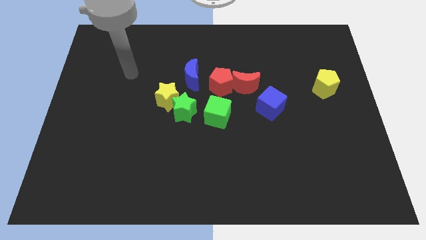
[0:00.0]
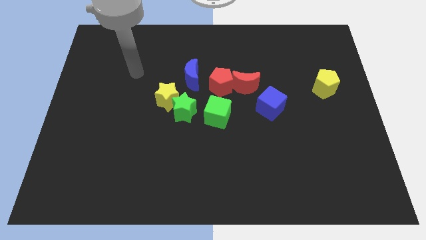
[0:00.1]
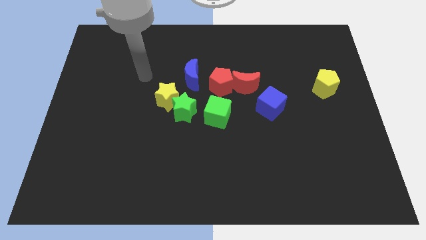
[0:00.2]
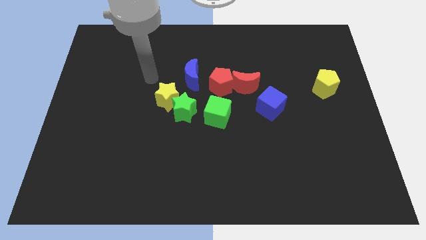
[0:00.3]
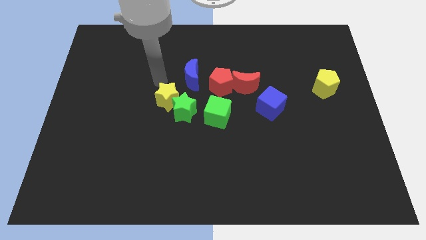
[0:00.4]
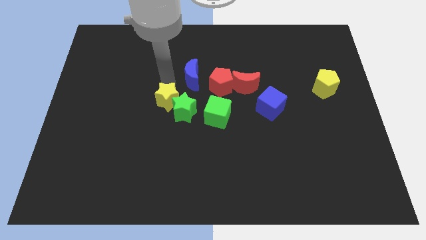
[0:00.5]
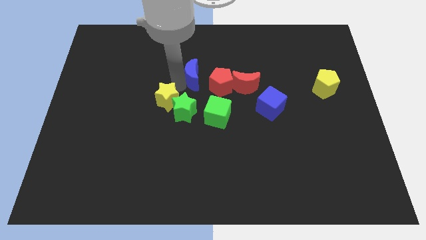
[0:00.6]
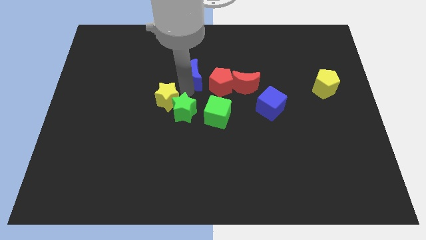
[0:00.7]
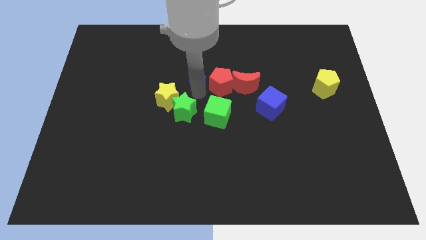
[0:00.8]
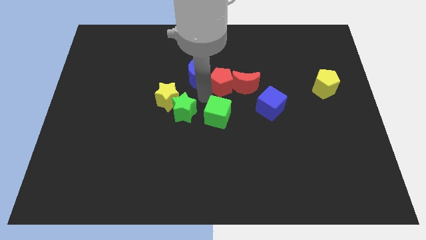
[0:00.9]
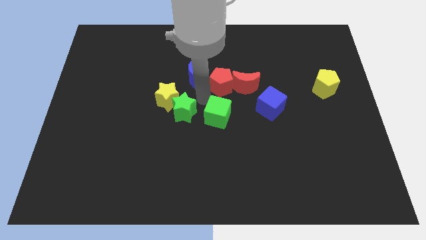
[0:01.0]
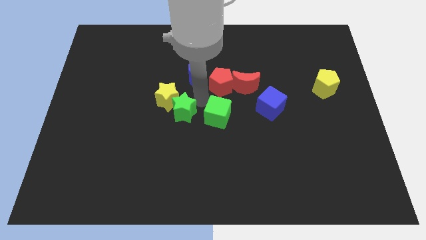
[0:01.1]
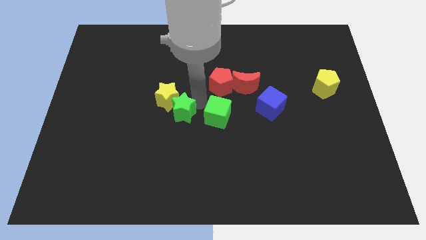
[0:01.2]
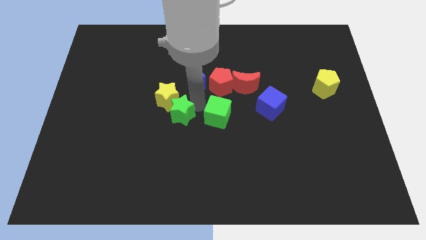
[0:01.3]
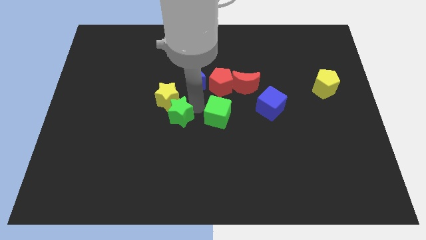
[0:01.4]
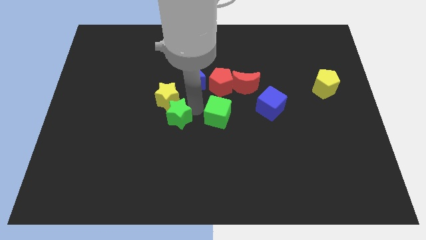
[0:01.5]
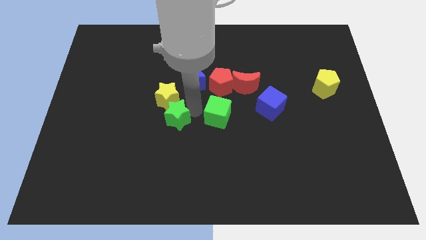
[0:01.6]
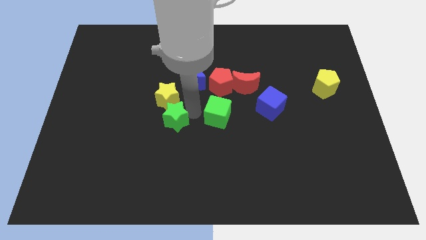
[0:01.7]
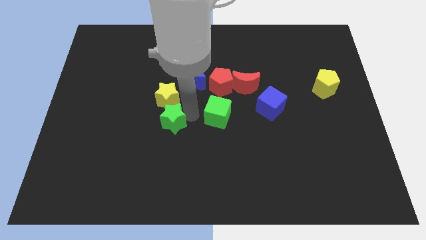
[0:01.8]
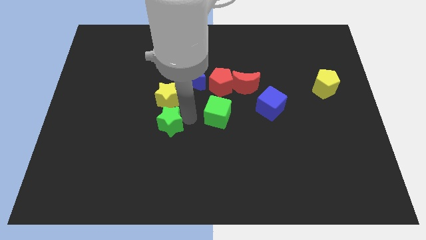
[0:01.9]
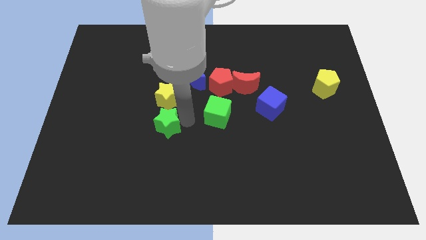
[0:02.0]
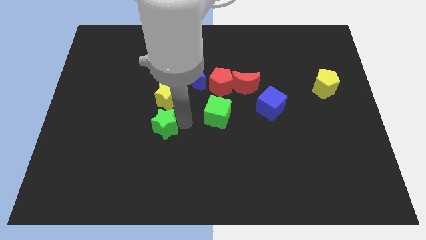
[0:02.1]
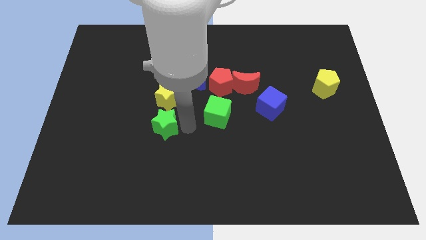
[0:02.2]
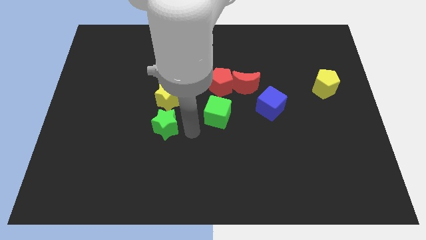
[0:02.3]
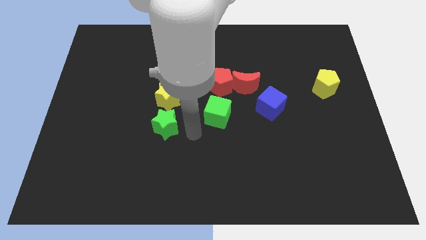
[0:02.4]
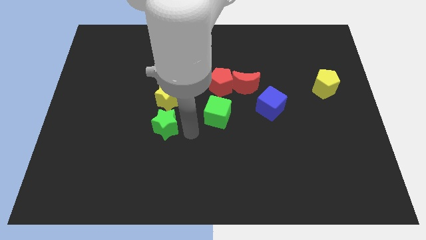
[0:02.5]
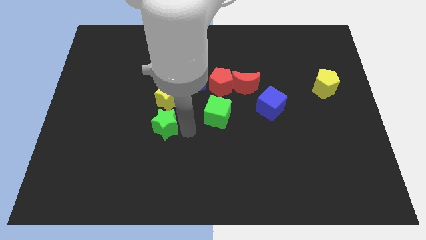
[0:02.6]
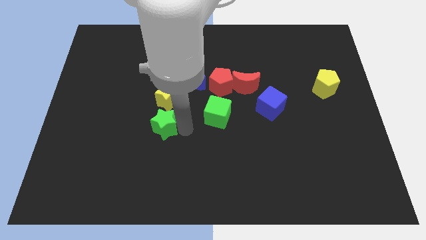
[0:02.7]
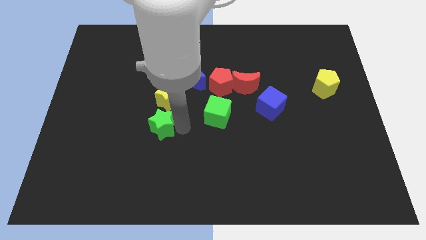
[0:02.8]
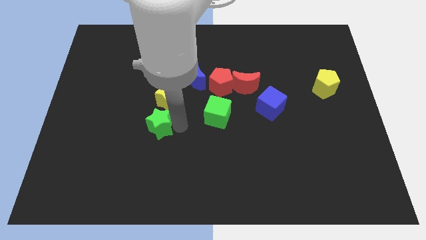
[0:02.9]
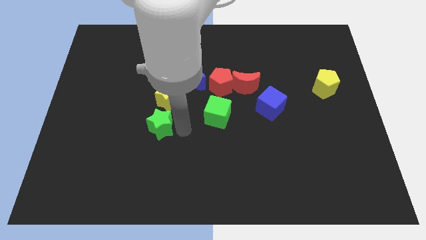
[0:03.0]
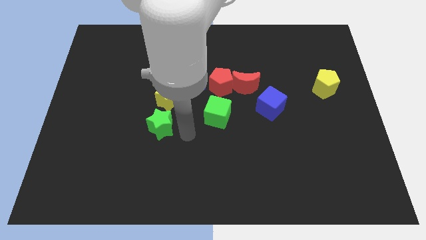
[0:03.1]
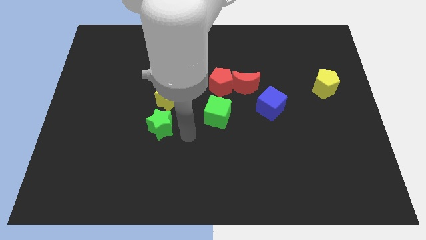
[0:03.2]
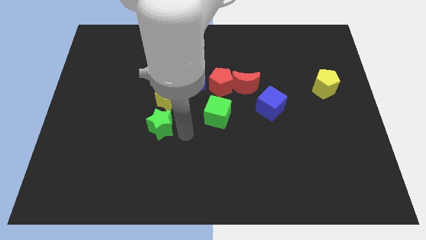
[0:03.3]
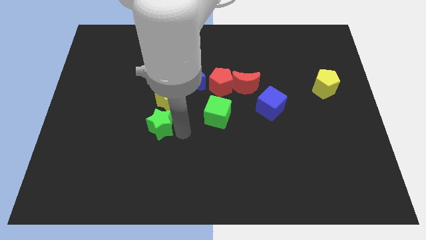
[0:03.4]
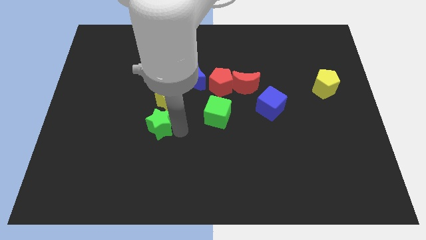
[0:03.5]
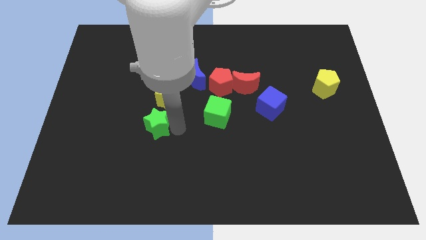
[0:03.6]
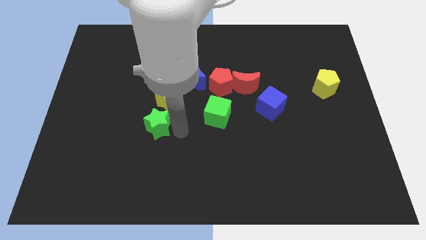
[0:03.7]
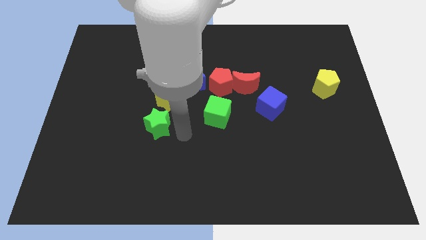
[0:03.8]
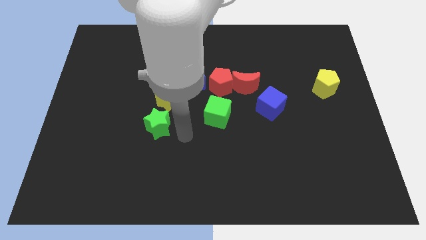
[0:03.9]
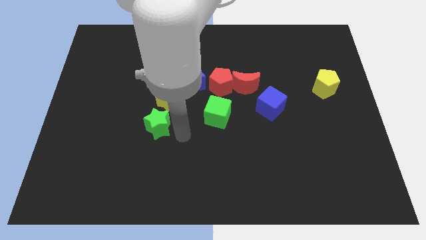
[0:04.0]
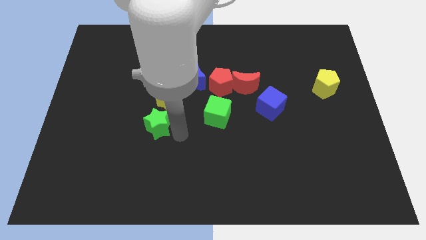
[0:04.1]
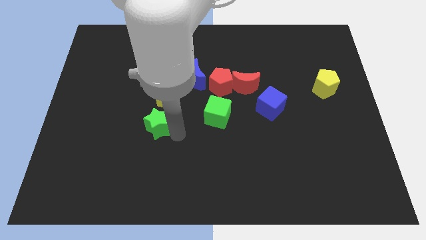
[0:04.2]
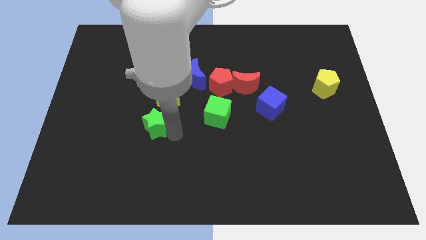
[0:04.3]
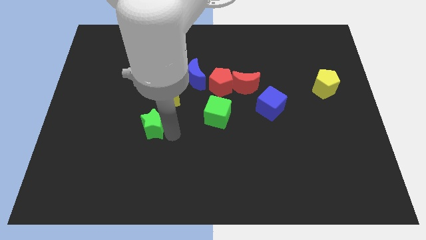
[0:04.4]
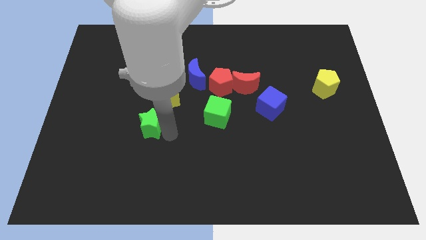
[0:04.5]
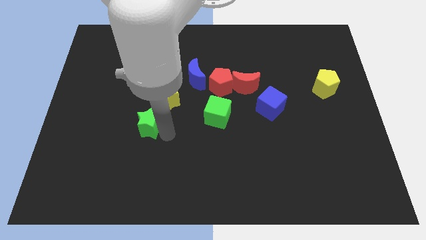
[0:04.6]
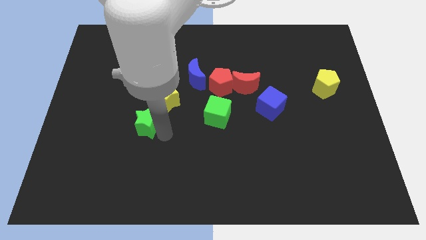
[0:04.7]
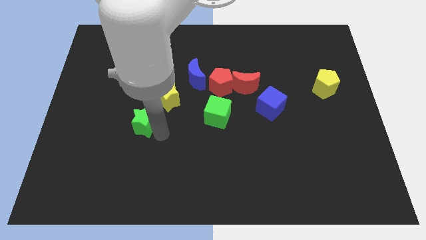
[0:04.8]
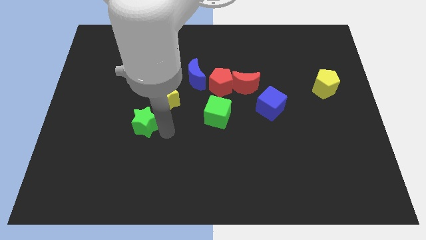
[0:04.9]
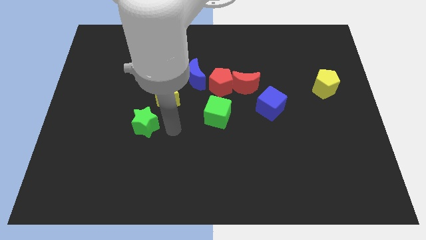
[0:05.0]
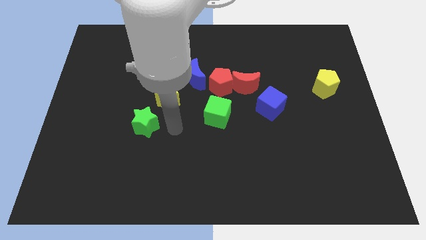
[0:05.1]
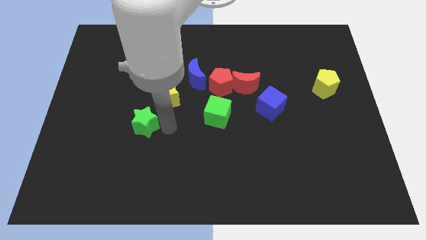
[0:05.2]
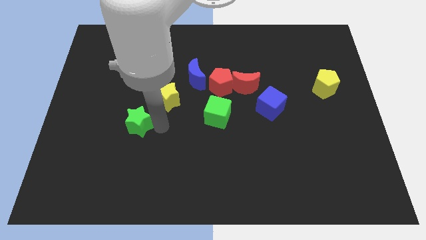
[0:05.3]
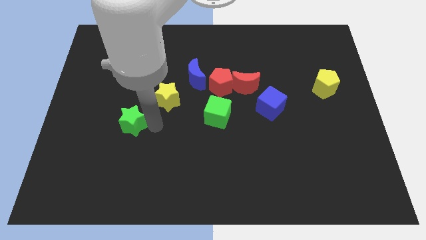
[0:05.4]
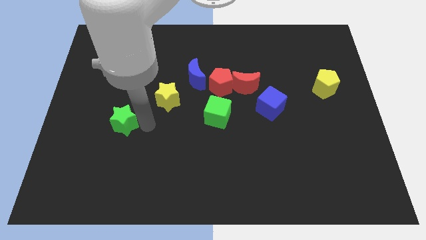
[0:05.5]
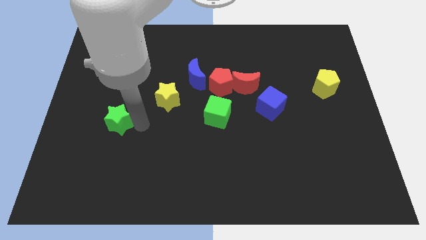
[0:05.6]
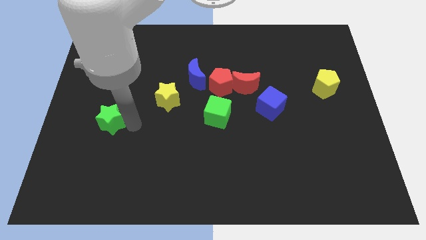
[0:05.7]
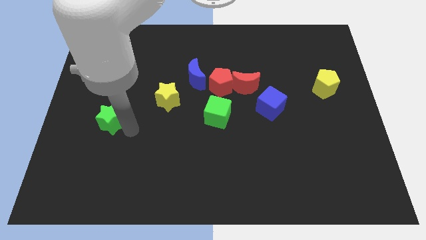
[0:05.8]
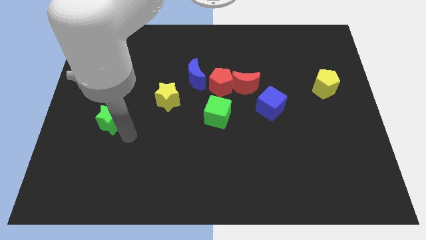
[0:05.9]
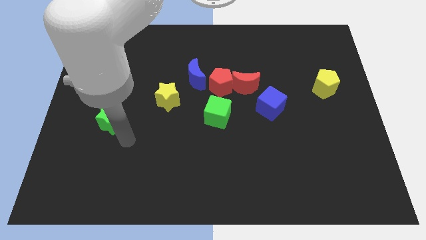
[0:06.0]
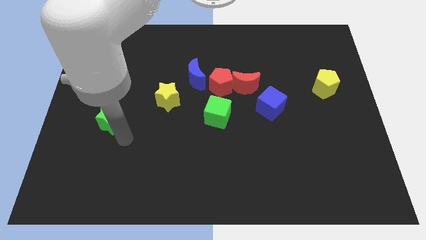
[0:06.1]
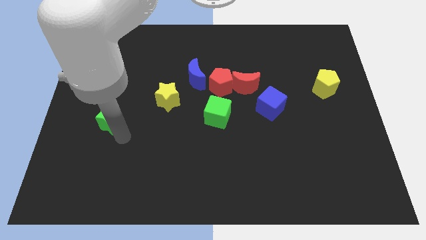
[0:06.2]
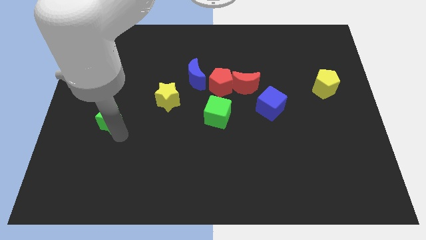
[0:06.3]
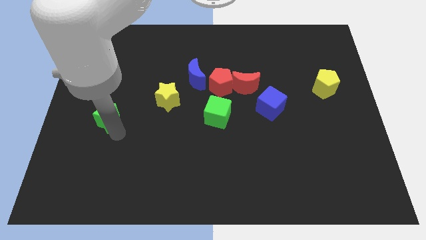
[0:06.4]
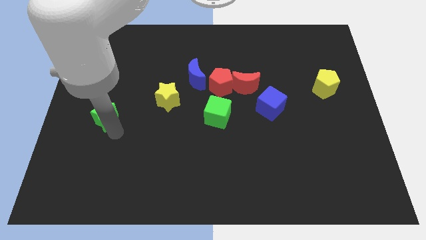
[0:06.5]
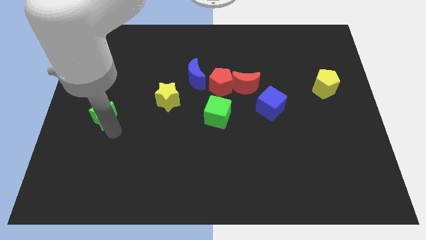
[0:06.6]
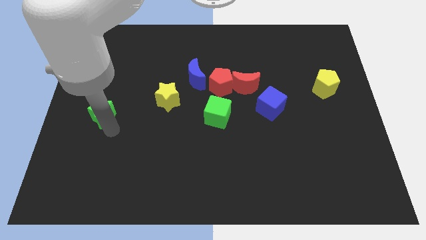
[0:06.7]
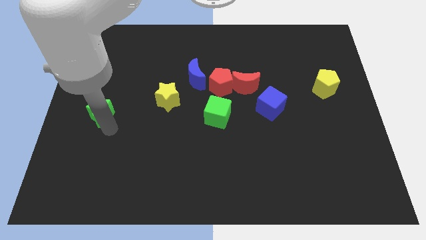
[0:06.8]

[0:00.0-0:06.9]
slide the green star to the left side
